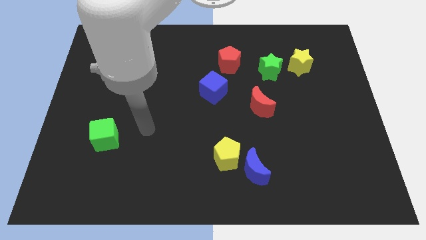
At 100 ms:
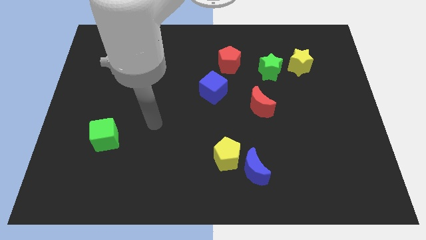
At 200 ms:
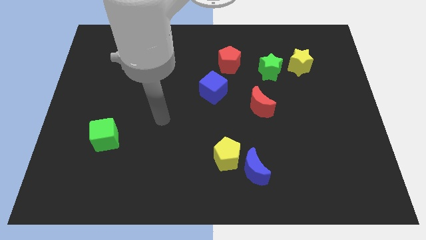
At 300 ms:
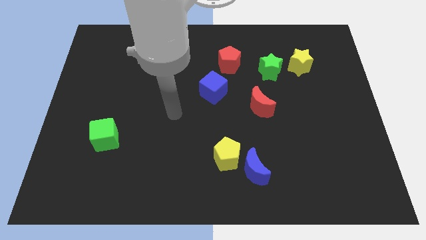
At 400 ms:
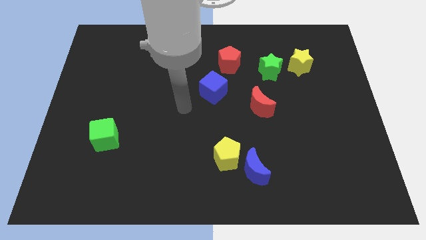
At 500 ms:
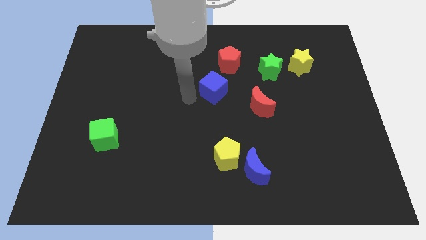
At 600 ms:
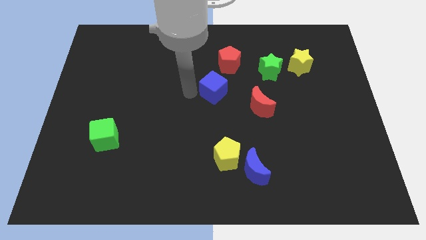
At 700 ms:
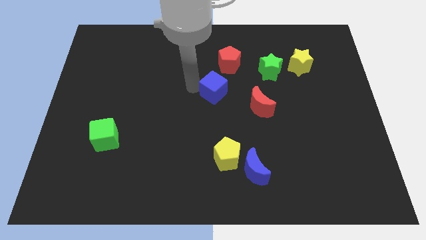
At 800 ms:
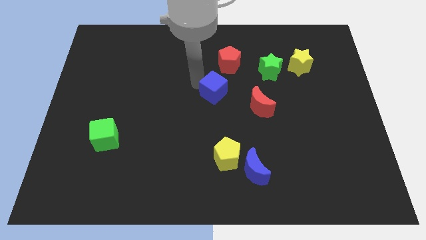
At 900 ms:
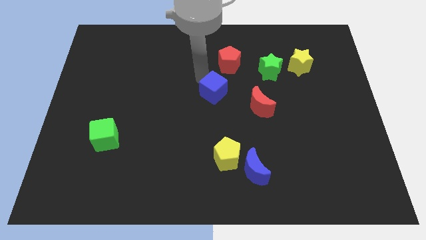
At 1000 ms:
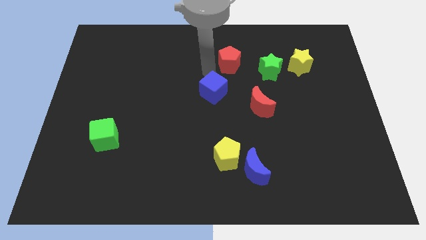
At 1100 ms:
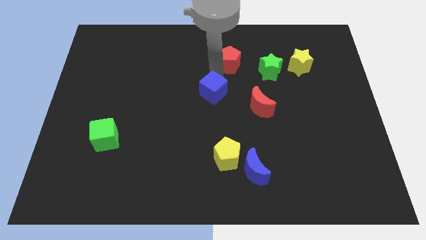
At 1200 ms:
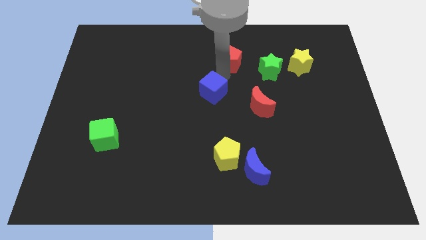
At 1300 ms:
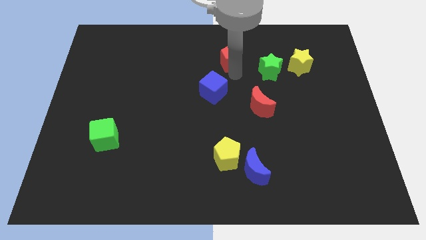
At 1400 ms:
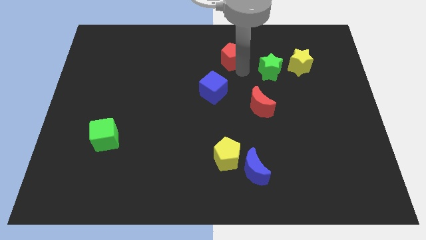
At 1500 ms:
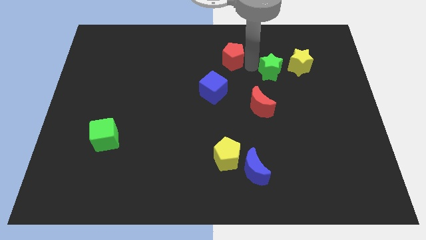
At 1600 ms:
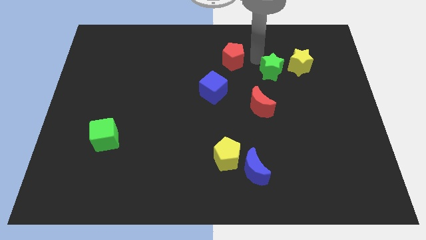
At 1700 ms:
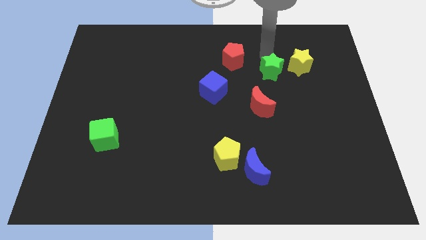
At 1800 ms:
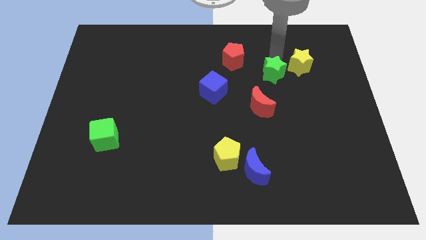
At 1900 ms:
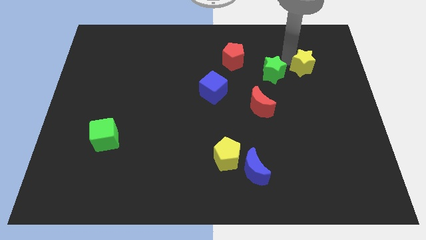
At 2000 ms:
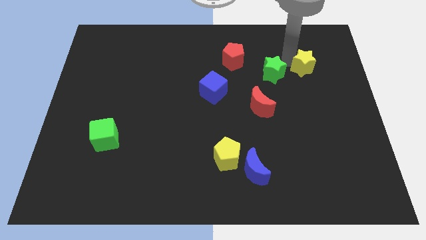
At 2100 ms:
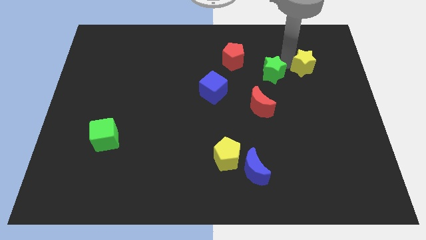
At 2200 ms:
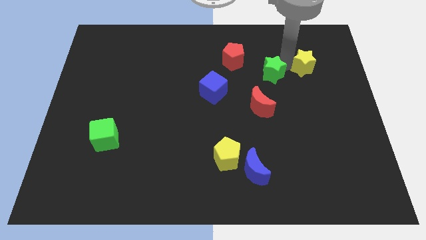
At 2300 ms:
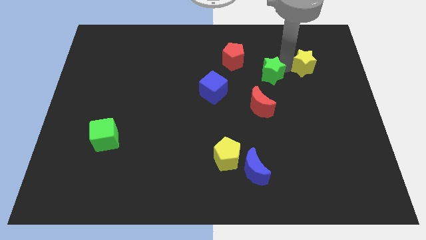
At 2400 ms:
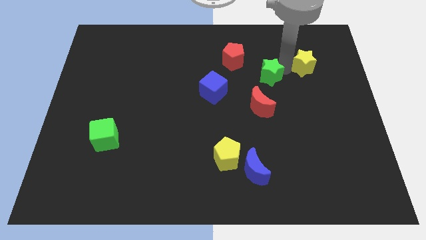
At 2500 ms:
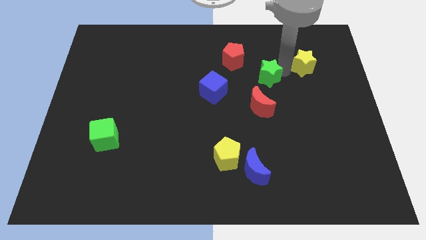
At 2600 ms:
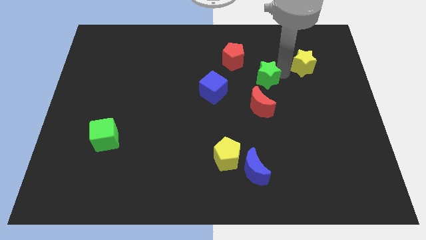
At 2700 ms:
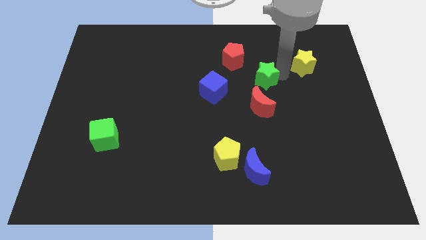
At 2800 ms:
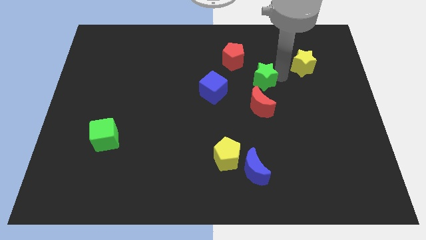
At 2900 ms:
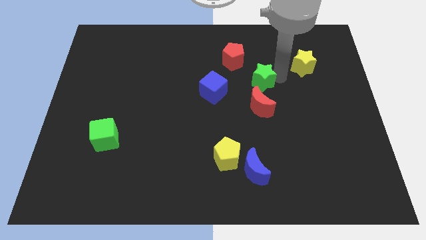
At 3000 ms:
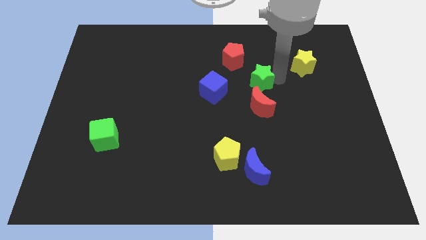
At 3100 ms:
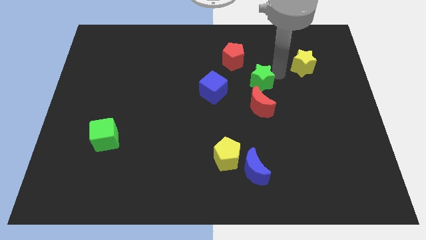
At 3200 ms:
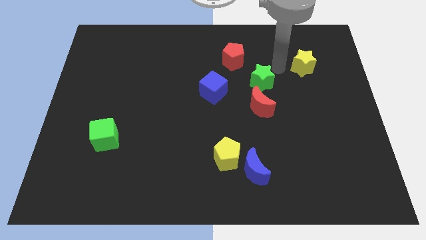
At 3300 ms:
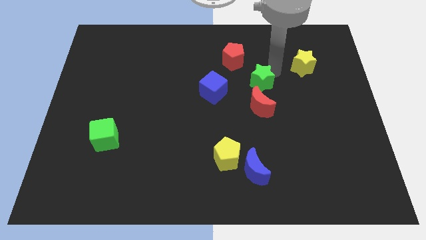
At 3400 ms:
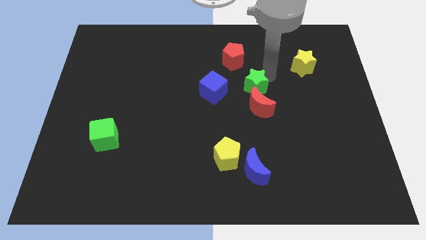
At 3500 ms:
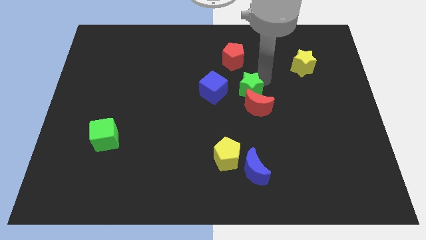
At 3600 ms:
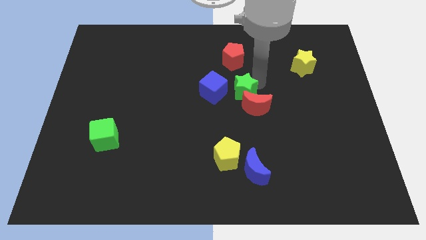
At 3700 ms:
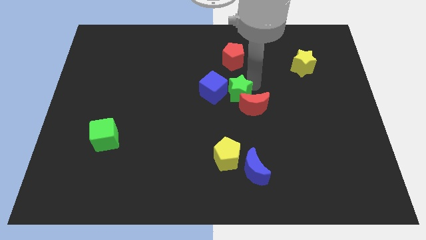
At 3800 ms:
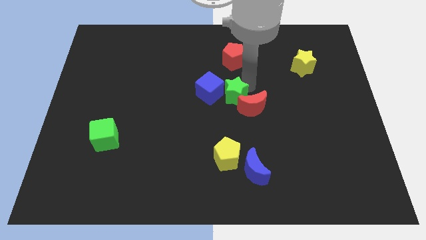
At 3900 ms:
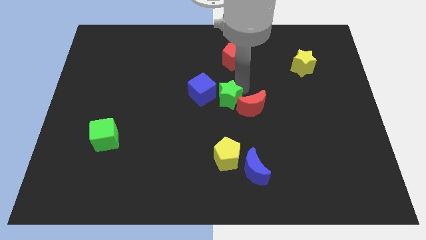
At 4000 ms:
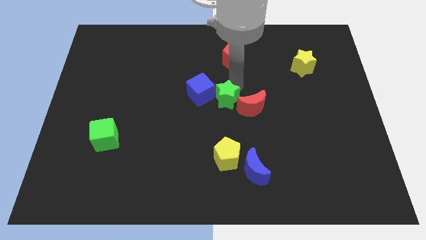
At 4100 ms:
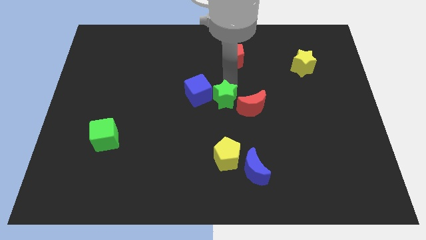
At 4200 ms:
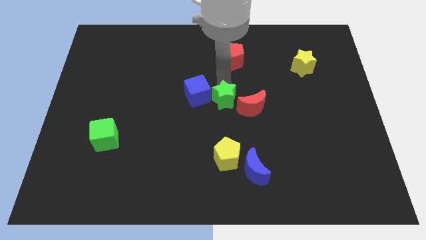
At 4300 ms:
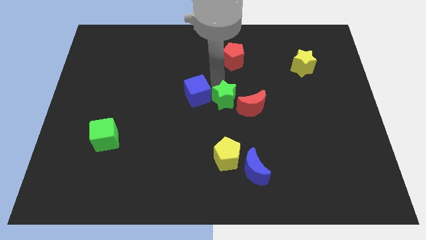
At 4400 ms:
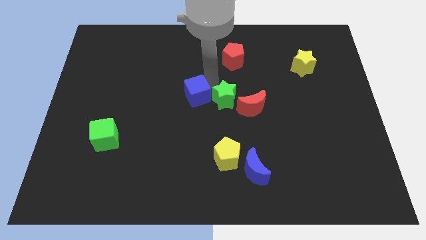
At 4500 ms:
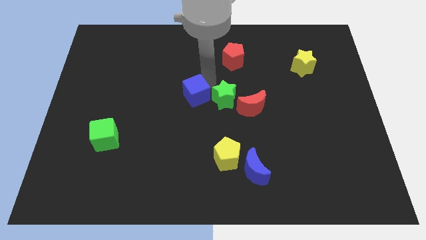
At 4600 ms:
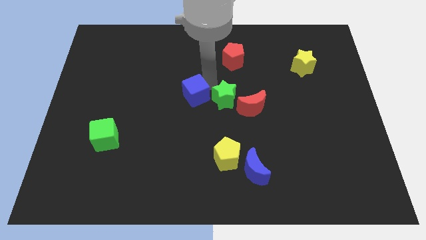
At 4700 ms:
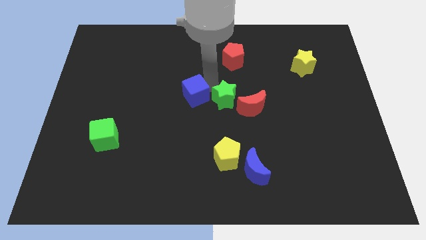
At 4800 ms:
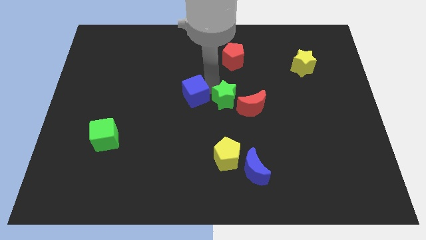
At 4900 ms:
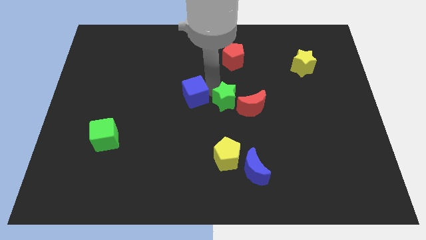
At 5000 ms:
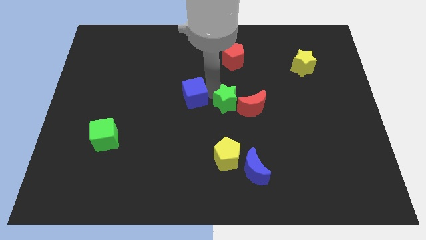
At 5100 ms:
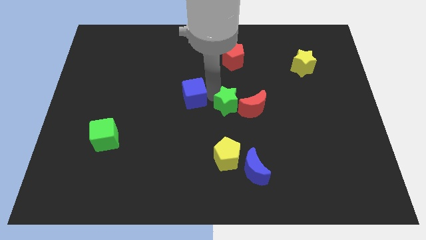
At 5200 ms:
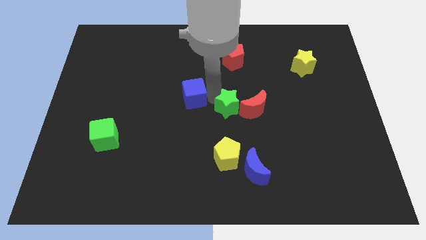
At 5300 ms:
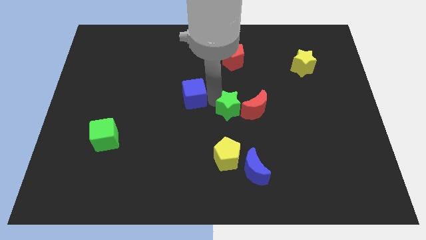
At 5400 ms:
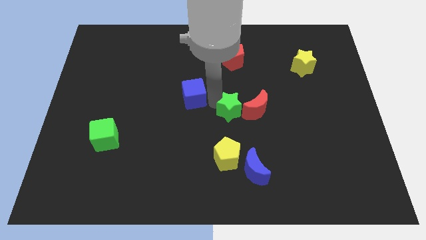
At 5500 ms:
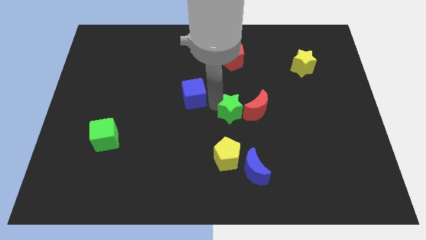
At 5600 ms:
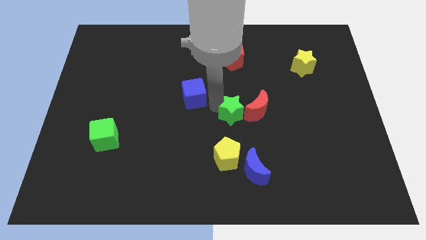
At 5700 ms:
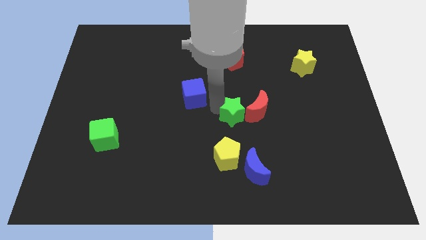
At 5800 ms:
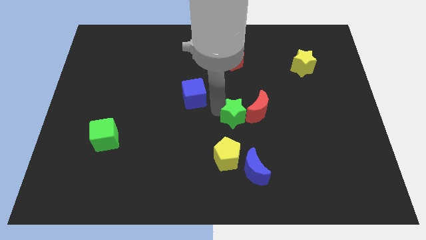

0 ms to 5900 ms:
slide the green star above the blue moon

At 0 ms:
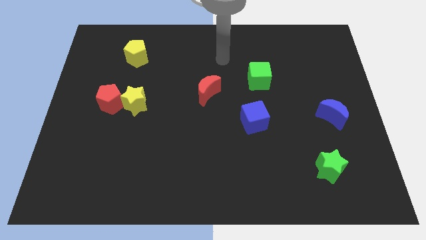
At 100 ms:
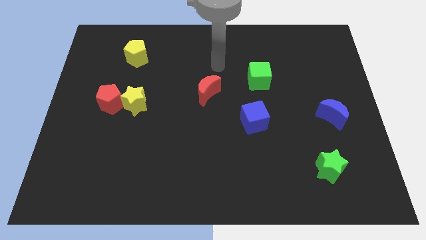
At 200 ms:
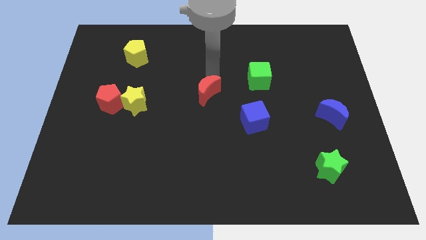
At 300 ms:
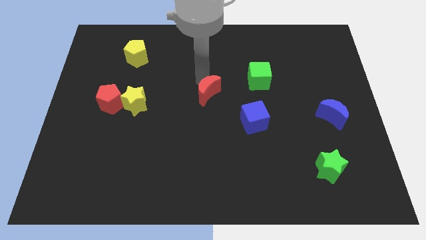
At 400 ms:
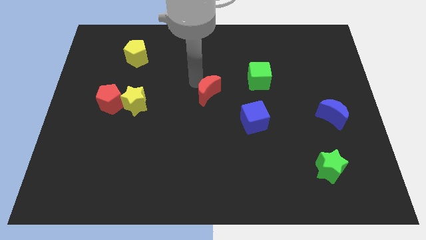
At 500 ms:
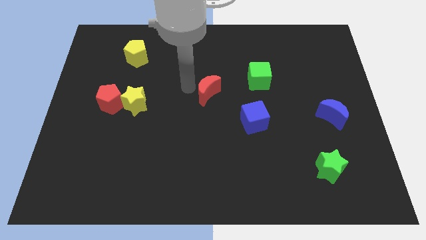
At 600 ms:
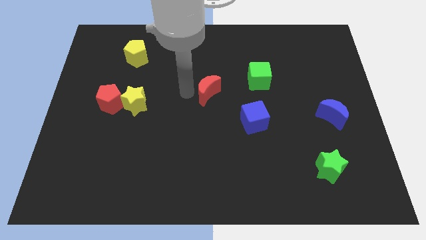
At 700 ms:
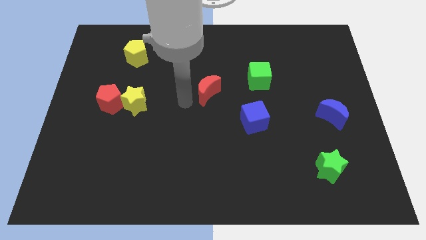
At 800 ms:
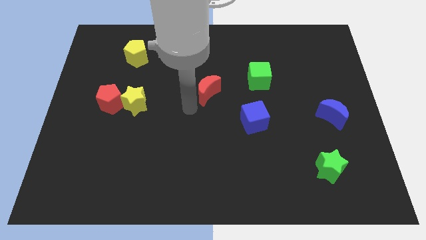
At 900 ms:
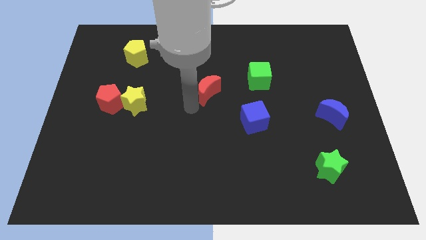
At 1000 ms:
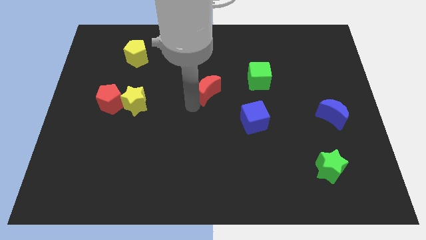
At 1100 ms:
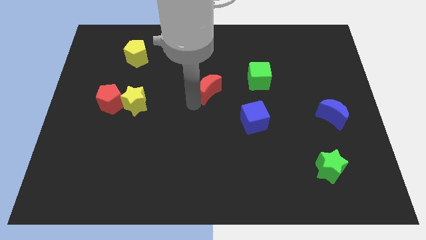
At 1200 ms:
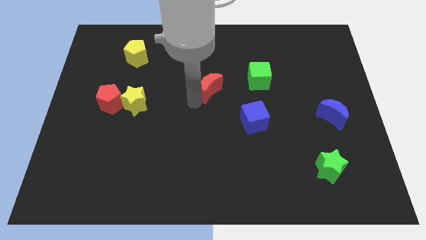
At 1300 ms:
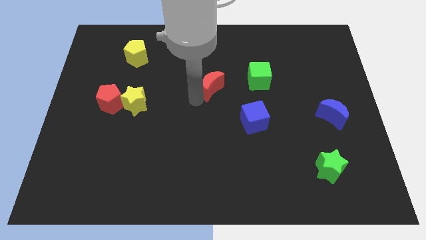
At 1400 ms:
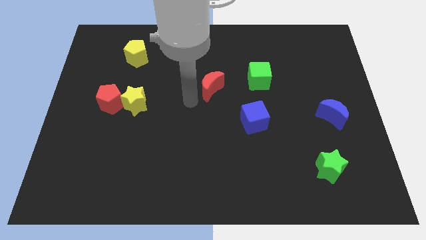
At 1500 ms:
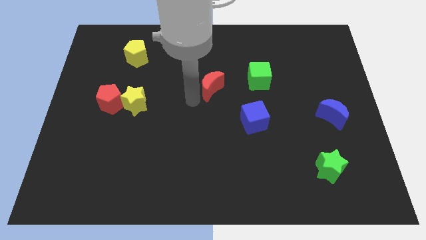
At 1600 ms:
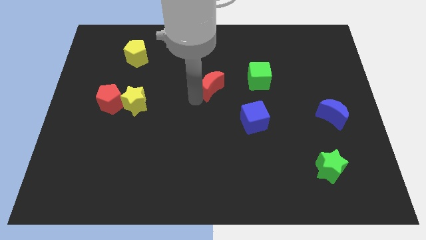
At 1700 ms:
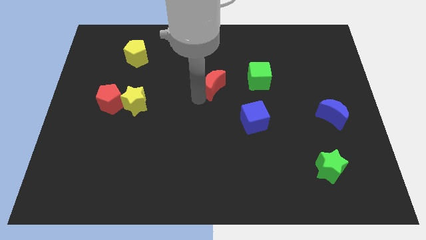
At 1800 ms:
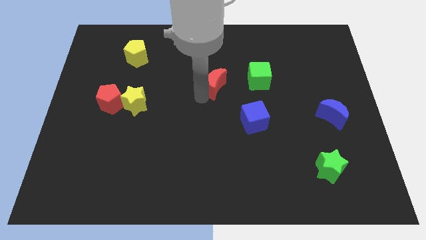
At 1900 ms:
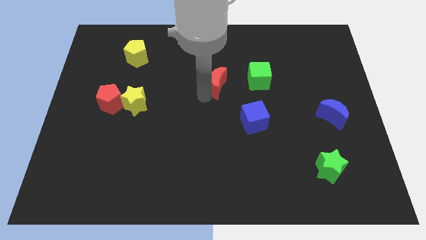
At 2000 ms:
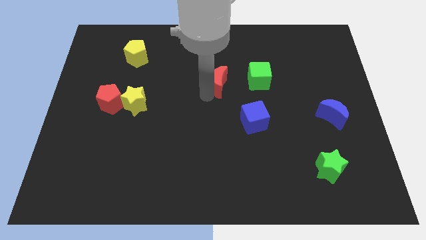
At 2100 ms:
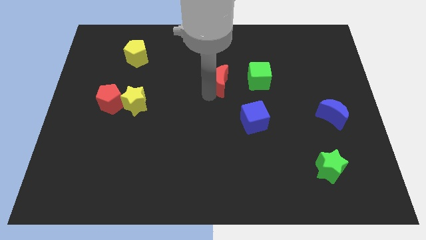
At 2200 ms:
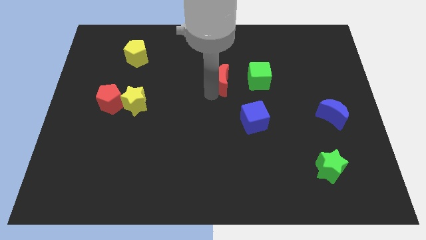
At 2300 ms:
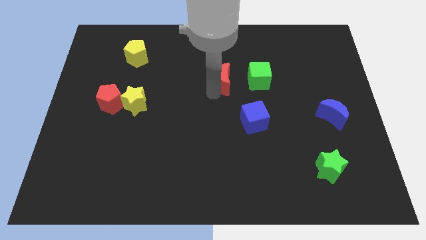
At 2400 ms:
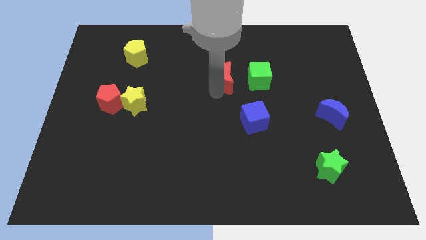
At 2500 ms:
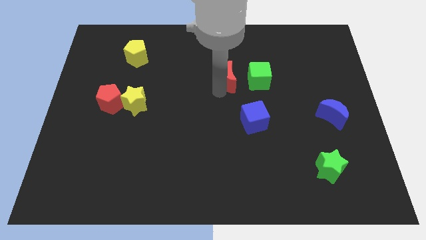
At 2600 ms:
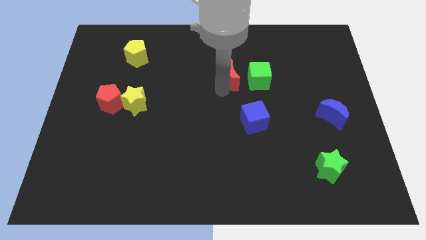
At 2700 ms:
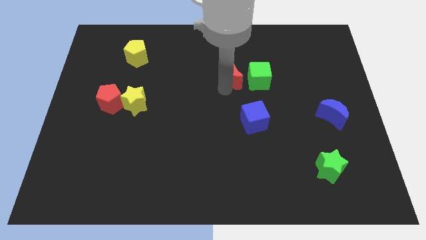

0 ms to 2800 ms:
move the red moon diagonally up and to the left of the green cube
